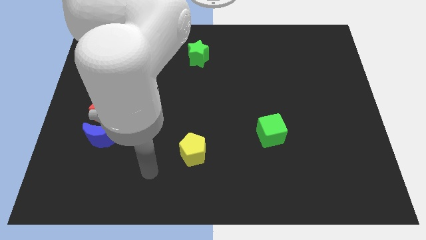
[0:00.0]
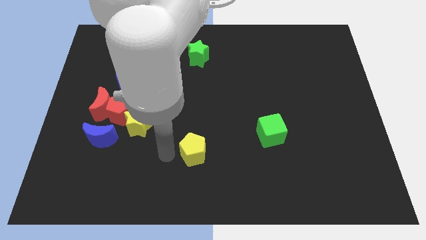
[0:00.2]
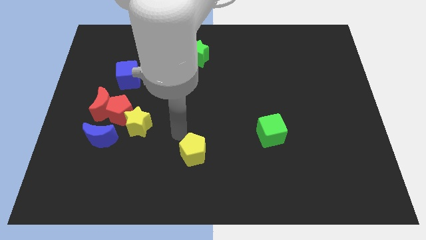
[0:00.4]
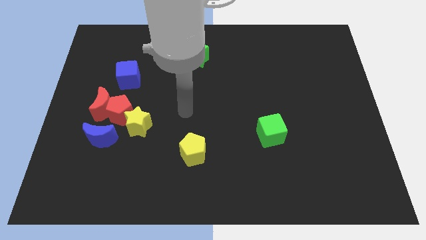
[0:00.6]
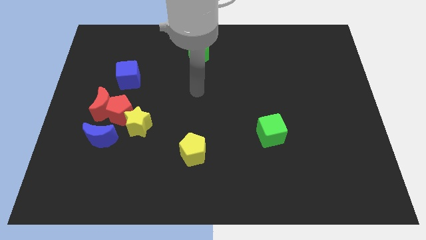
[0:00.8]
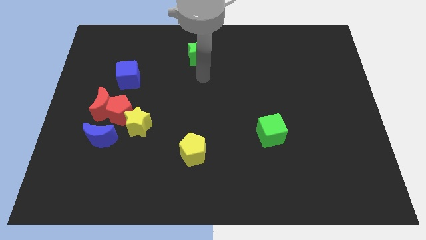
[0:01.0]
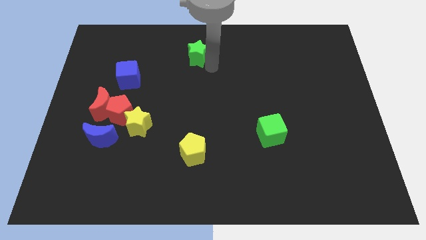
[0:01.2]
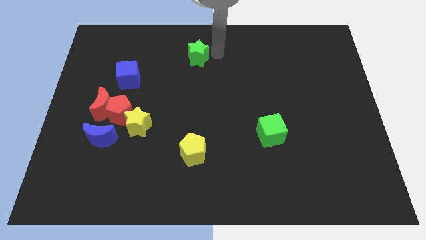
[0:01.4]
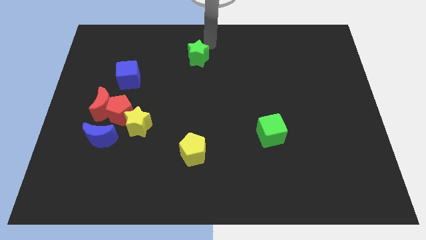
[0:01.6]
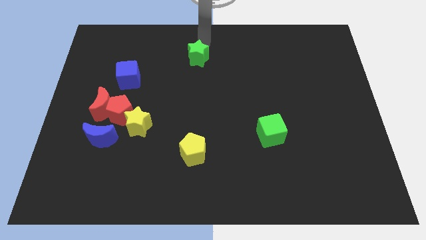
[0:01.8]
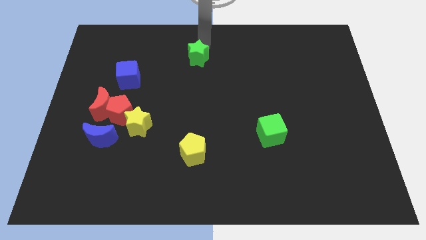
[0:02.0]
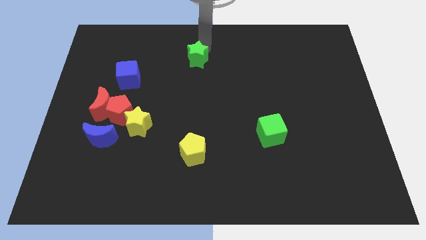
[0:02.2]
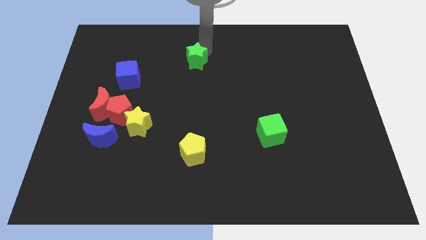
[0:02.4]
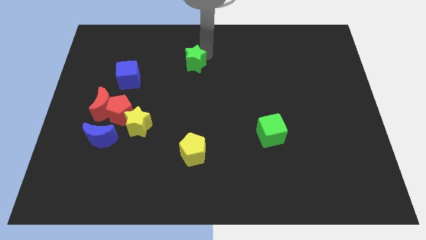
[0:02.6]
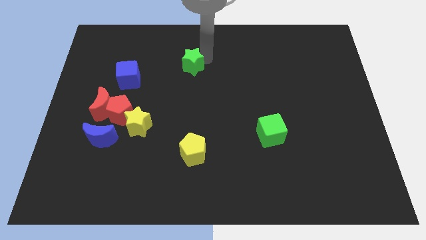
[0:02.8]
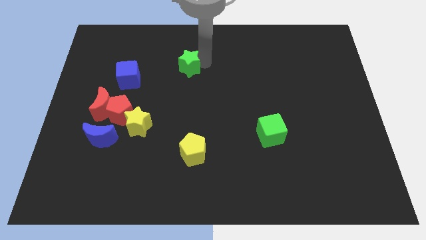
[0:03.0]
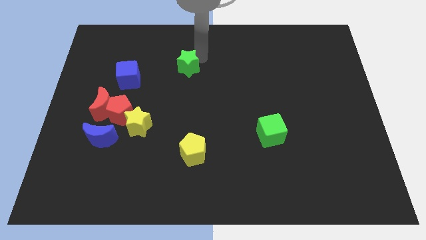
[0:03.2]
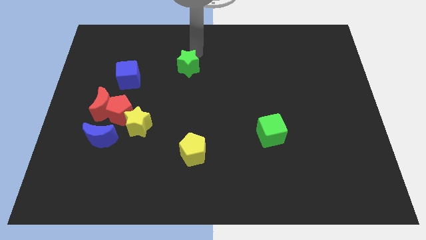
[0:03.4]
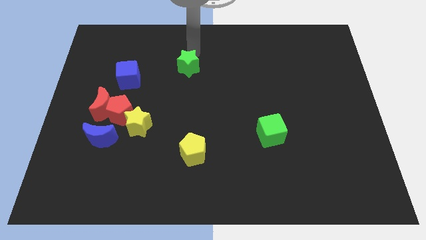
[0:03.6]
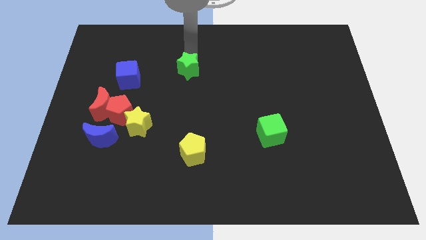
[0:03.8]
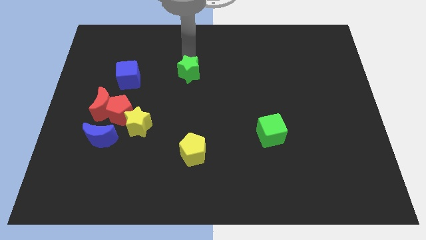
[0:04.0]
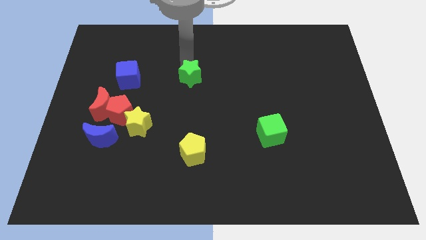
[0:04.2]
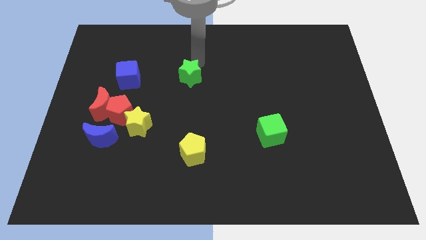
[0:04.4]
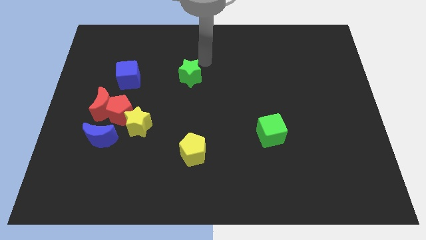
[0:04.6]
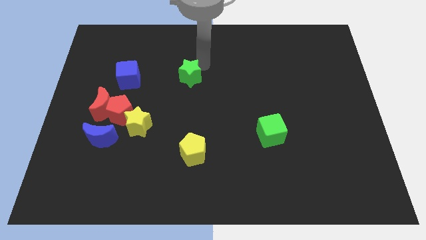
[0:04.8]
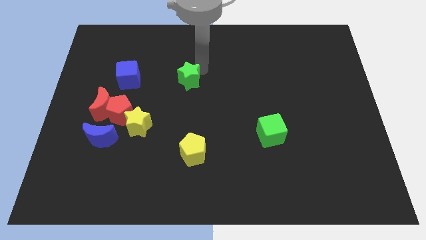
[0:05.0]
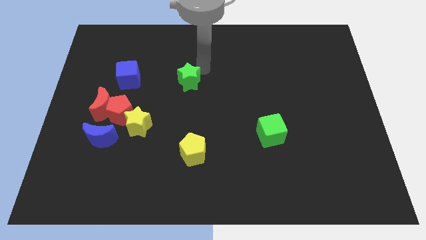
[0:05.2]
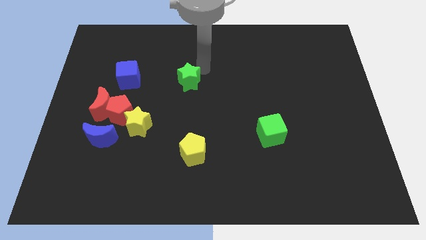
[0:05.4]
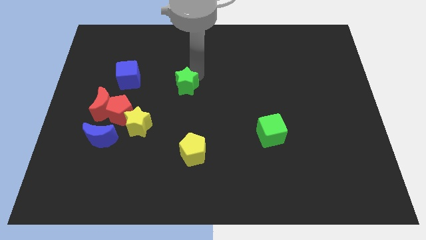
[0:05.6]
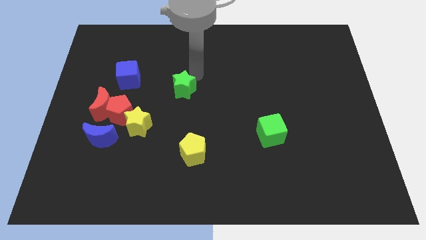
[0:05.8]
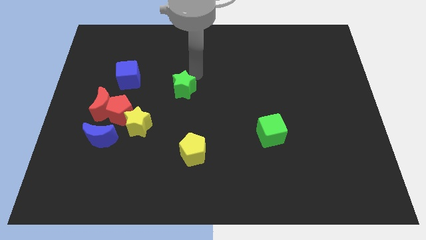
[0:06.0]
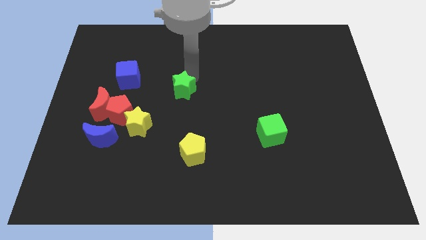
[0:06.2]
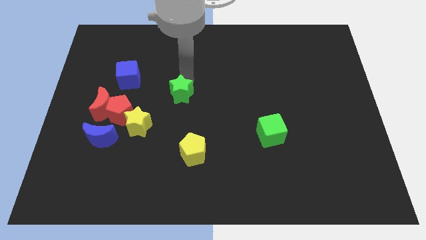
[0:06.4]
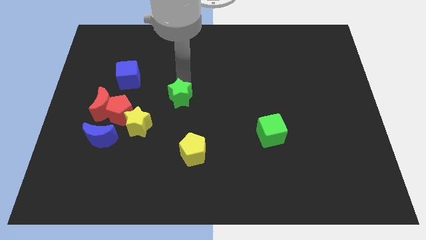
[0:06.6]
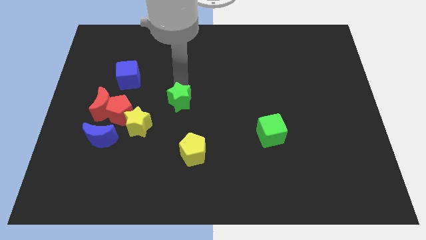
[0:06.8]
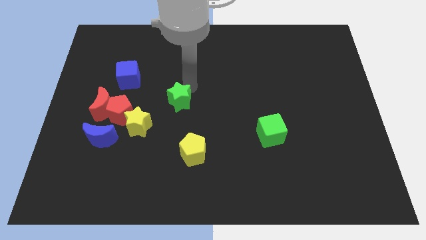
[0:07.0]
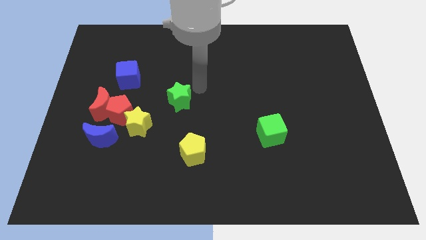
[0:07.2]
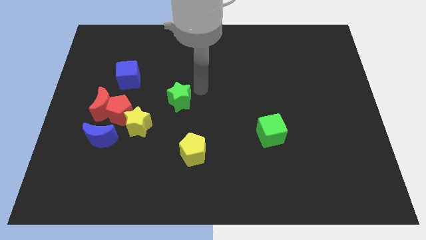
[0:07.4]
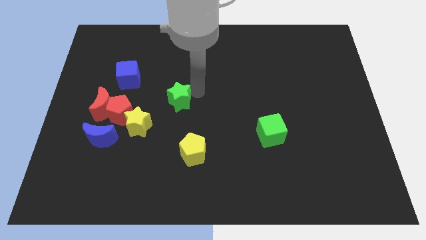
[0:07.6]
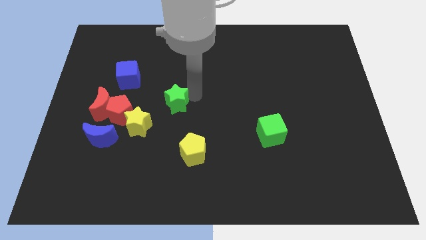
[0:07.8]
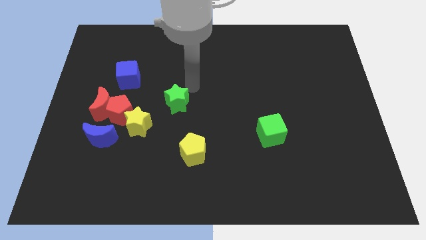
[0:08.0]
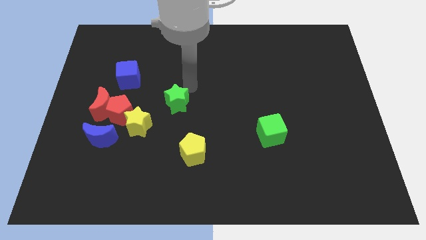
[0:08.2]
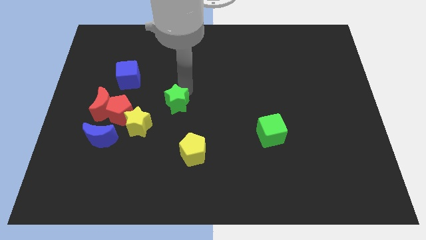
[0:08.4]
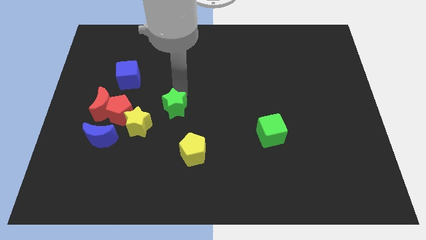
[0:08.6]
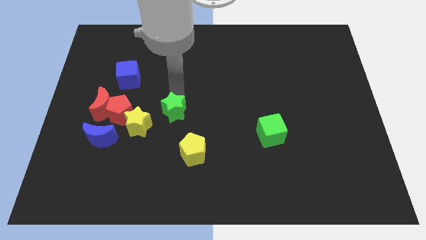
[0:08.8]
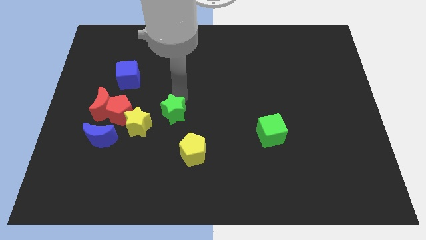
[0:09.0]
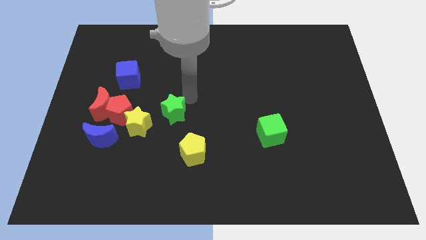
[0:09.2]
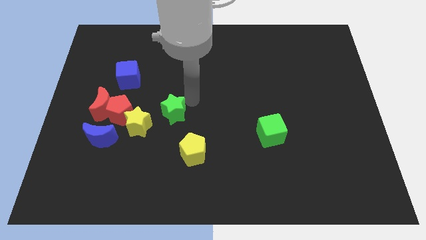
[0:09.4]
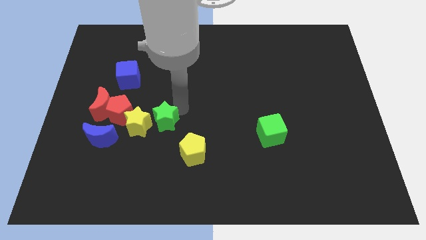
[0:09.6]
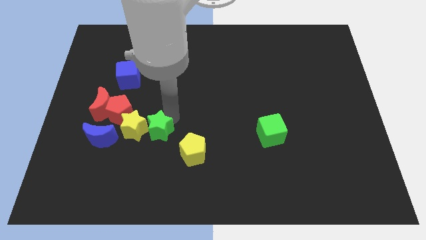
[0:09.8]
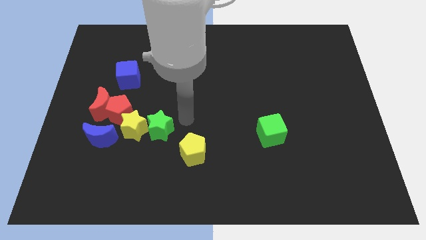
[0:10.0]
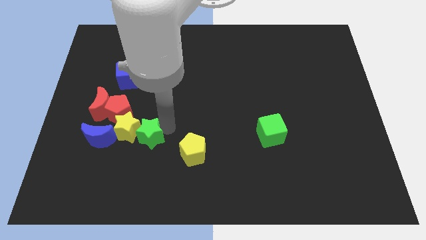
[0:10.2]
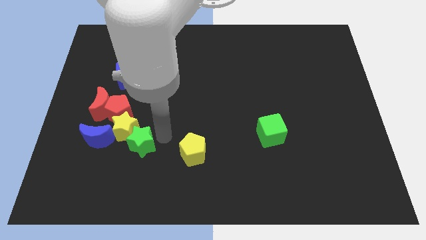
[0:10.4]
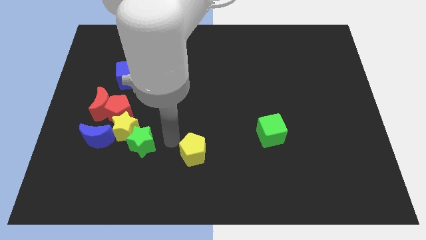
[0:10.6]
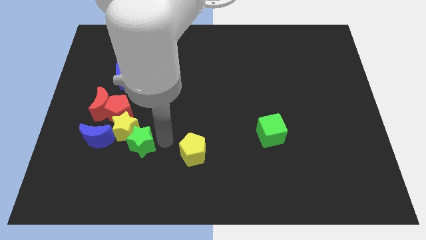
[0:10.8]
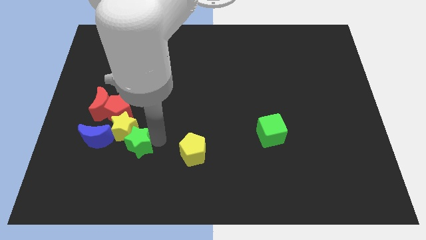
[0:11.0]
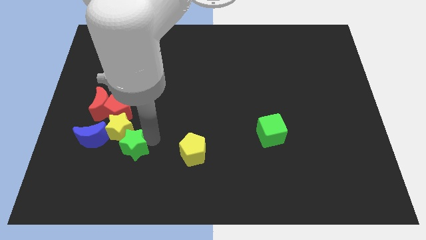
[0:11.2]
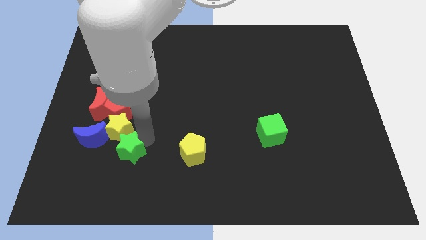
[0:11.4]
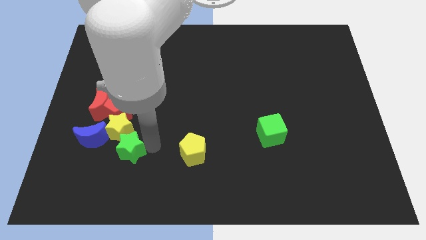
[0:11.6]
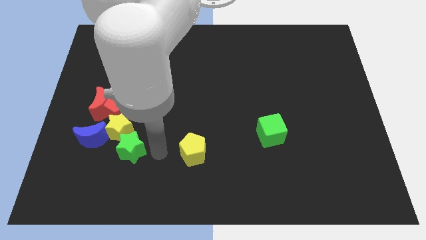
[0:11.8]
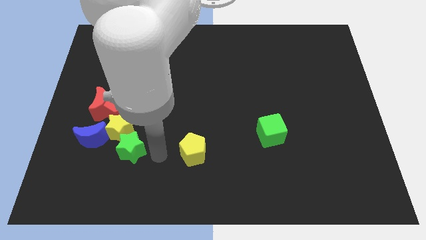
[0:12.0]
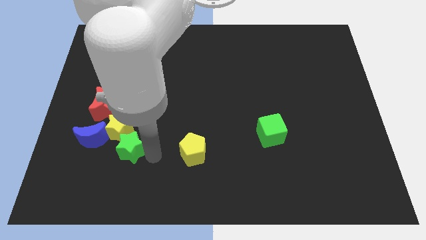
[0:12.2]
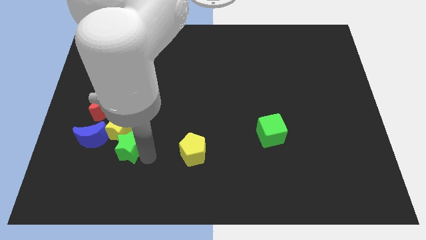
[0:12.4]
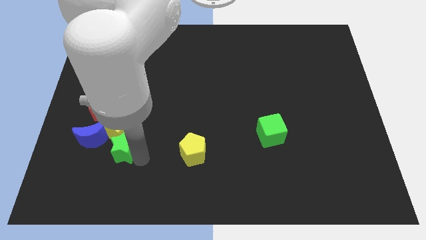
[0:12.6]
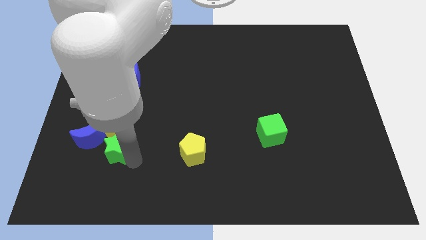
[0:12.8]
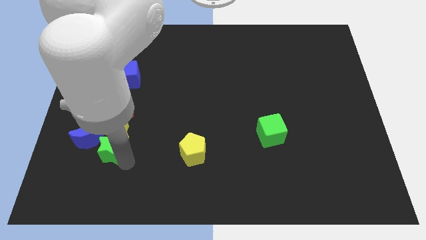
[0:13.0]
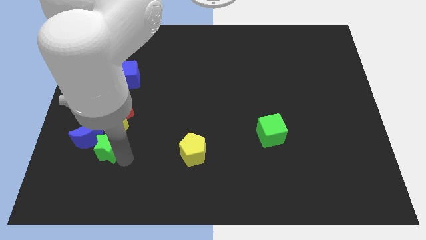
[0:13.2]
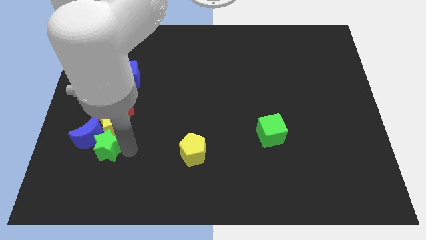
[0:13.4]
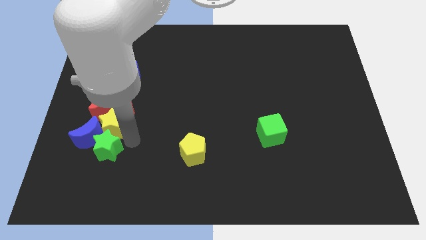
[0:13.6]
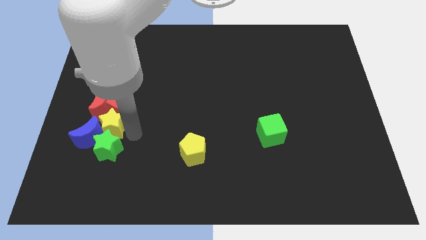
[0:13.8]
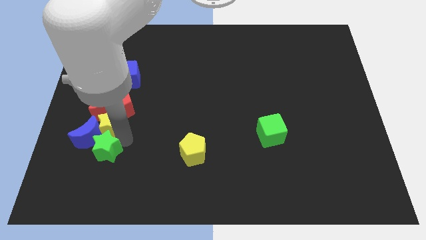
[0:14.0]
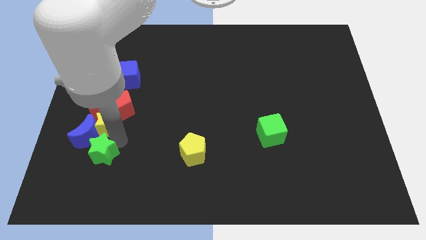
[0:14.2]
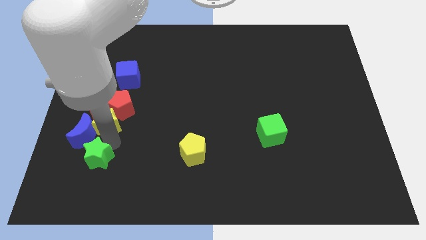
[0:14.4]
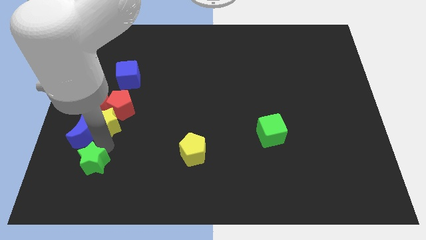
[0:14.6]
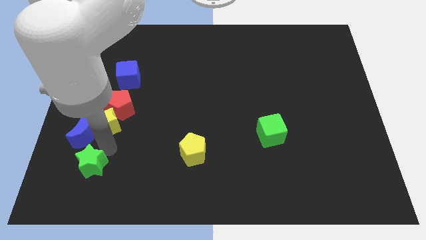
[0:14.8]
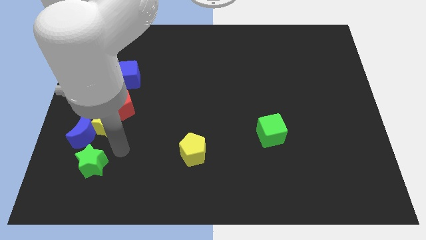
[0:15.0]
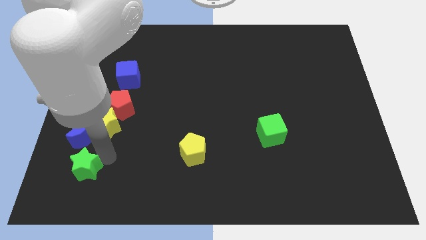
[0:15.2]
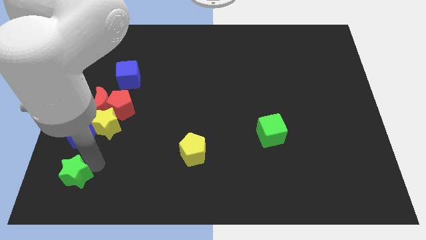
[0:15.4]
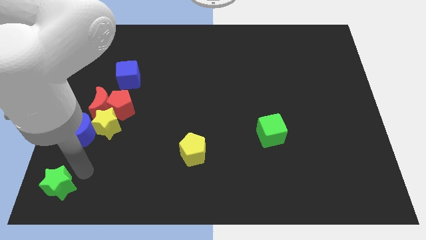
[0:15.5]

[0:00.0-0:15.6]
push the green star to the bottom left of the board

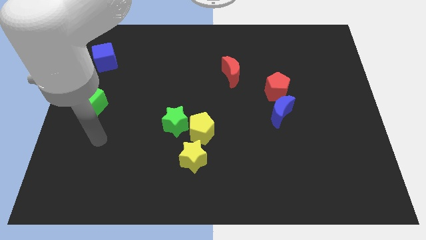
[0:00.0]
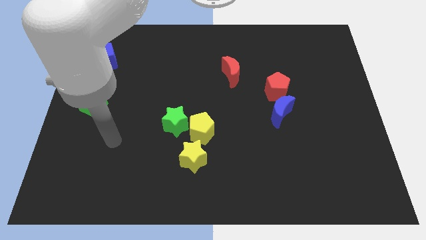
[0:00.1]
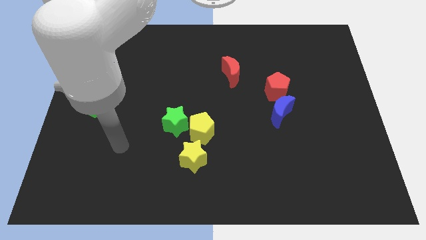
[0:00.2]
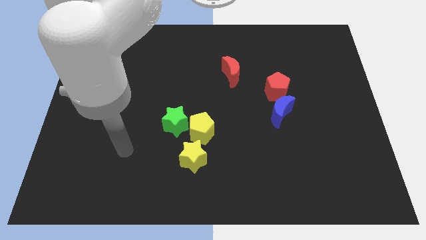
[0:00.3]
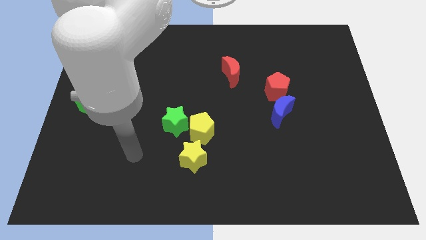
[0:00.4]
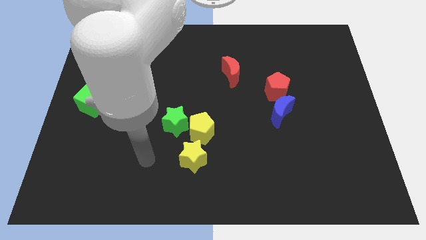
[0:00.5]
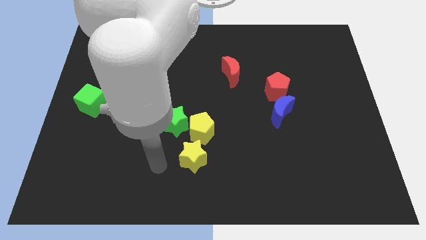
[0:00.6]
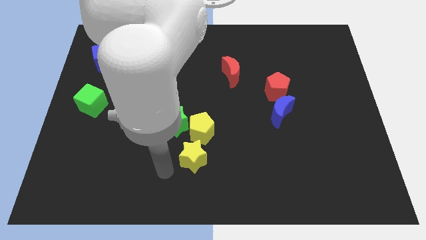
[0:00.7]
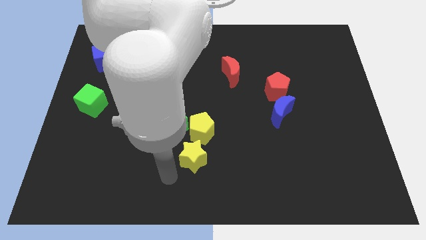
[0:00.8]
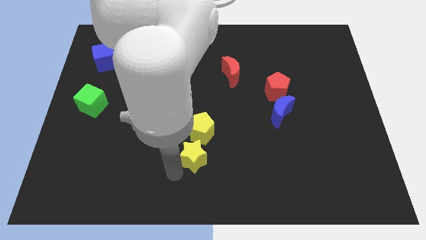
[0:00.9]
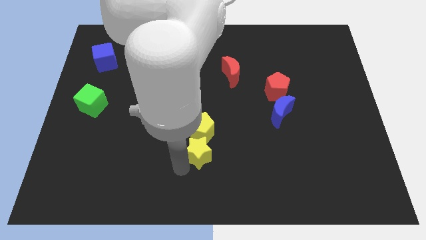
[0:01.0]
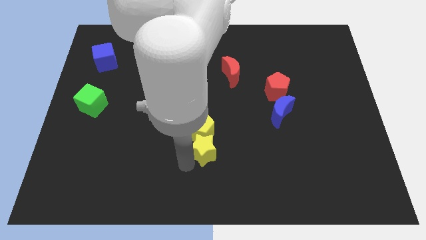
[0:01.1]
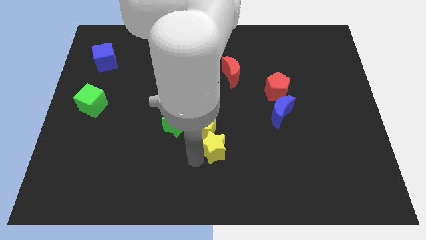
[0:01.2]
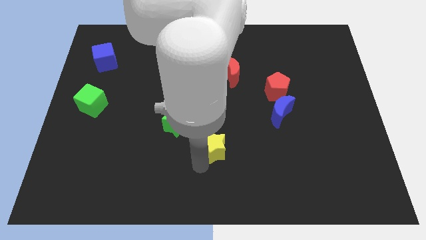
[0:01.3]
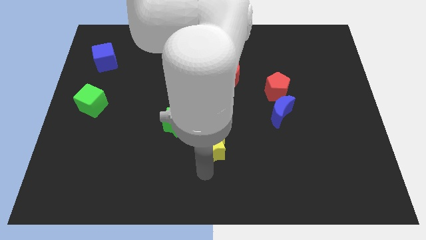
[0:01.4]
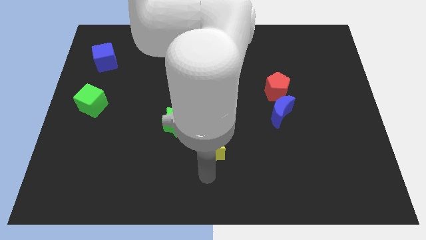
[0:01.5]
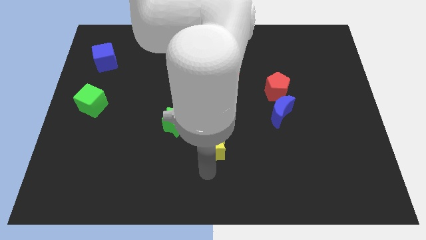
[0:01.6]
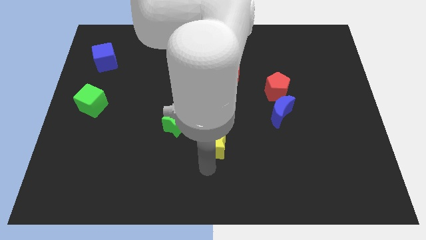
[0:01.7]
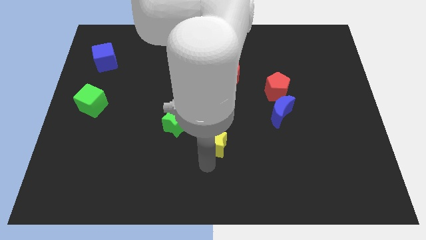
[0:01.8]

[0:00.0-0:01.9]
push the yellow star to the middle
